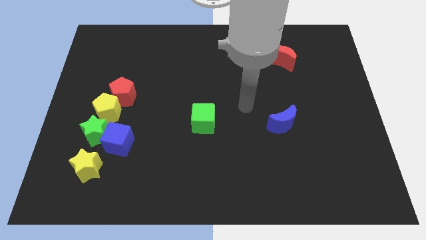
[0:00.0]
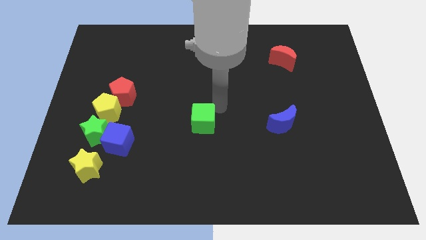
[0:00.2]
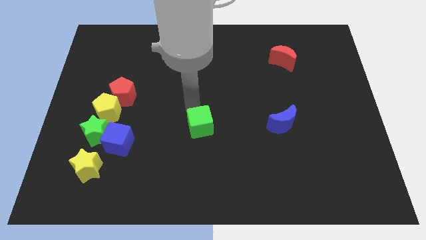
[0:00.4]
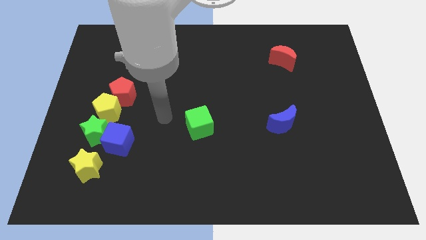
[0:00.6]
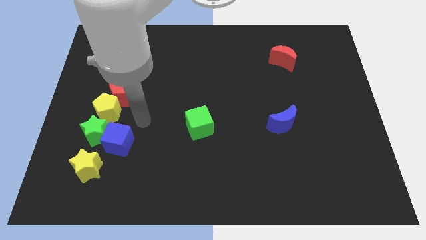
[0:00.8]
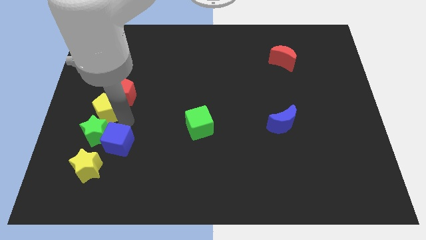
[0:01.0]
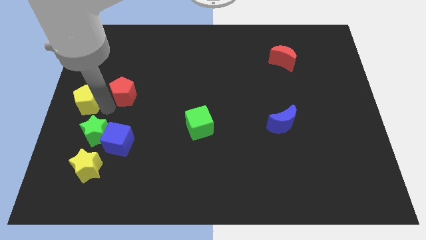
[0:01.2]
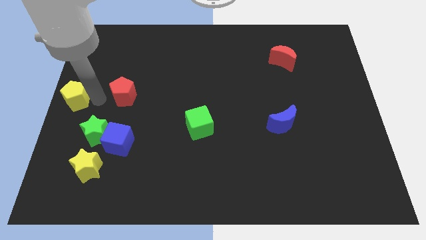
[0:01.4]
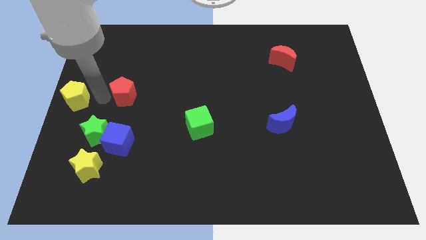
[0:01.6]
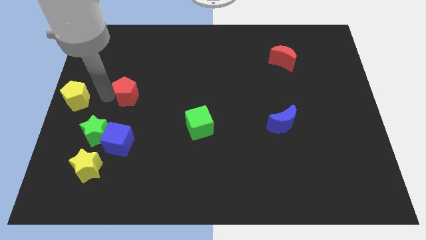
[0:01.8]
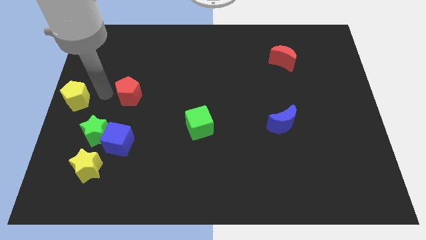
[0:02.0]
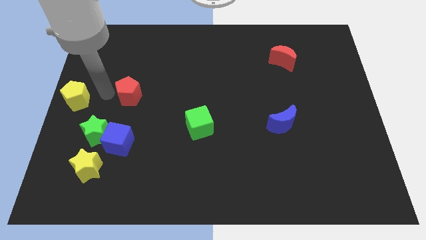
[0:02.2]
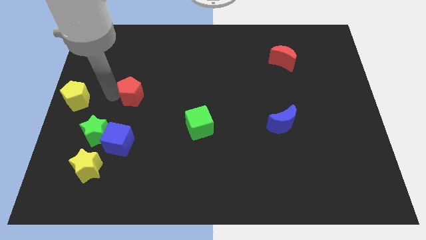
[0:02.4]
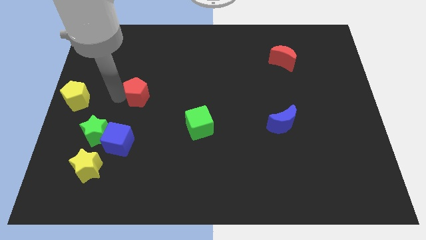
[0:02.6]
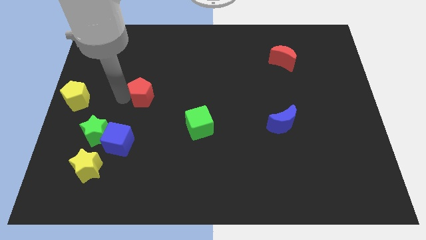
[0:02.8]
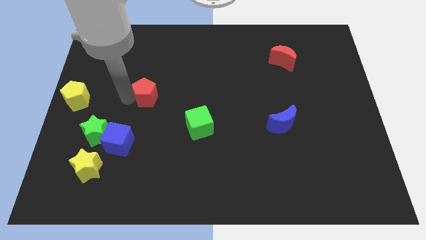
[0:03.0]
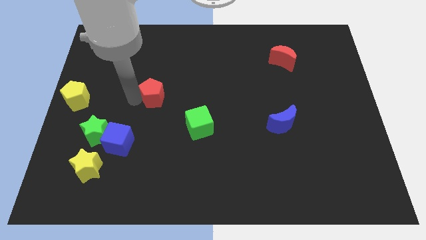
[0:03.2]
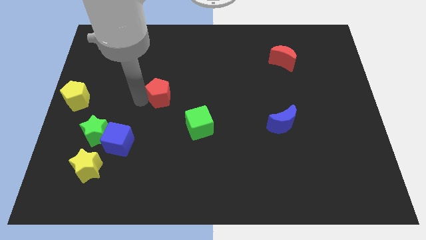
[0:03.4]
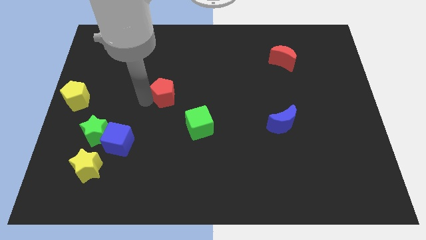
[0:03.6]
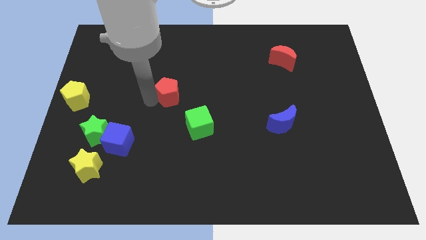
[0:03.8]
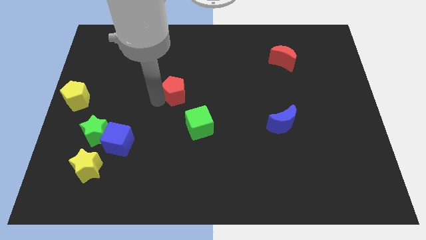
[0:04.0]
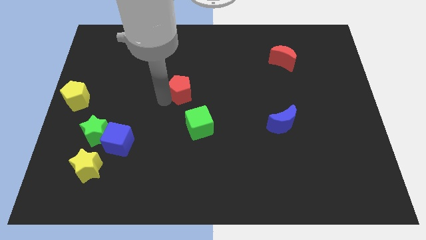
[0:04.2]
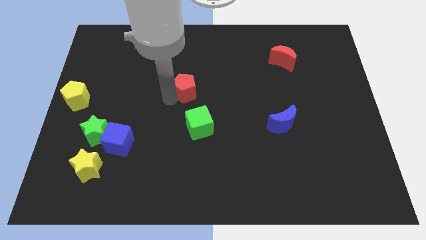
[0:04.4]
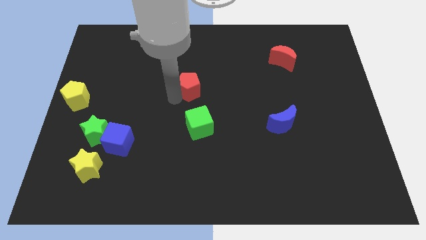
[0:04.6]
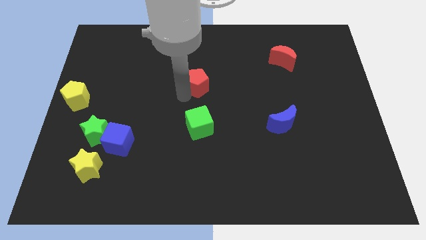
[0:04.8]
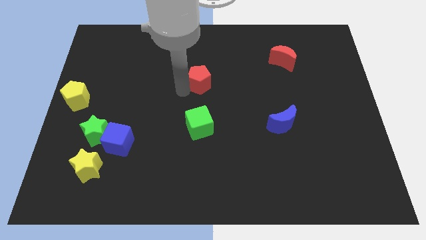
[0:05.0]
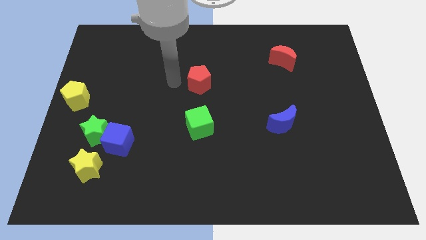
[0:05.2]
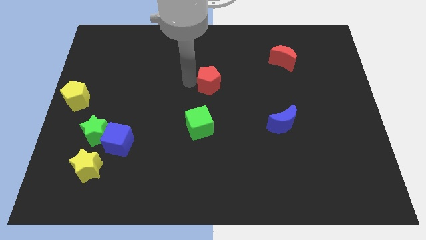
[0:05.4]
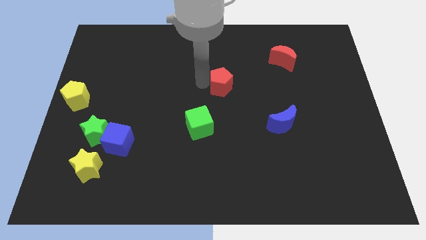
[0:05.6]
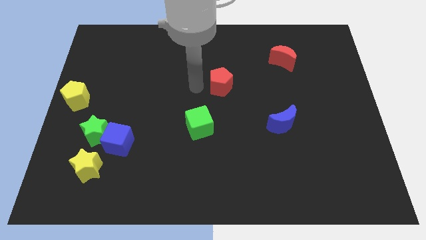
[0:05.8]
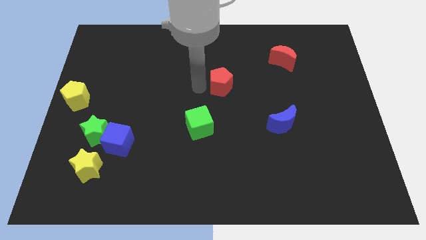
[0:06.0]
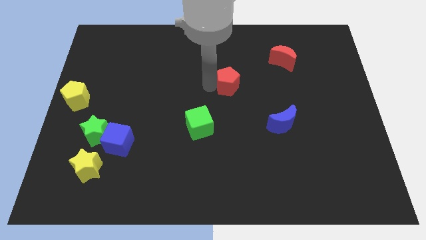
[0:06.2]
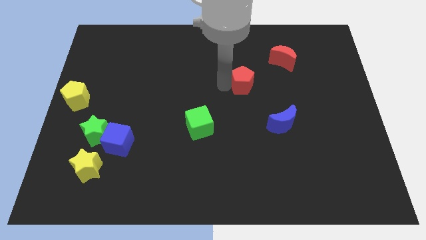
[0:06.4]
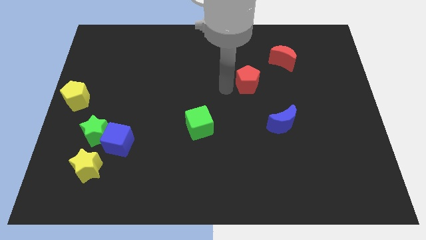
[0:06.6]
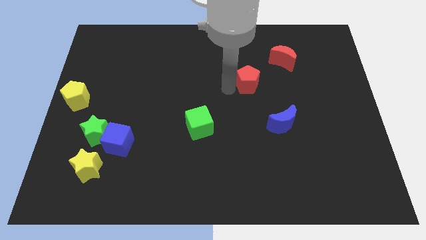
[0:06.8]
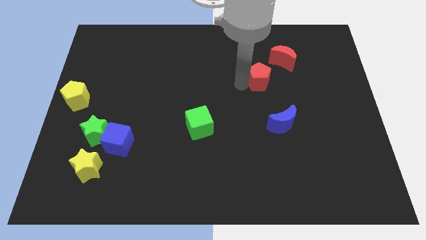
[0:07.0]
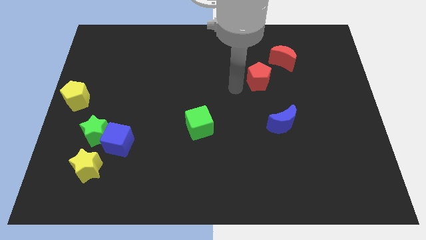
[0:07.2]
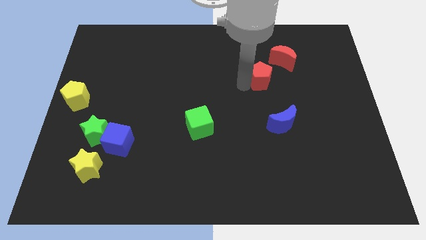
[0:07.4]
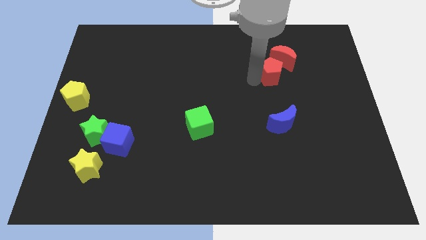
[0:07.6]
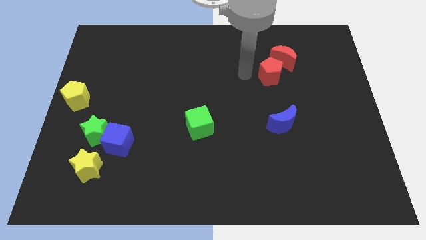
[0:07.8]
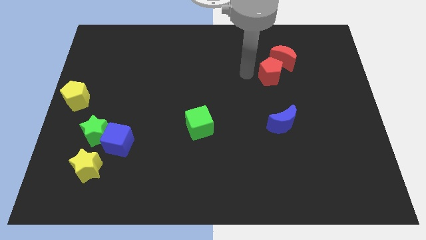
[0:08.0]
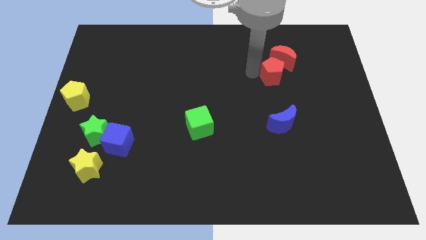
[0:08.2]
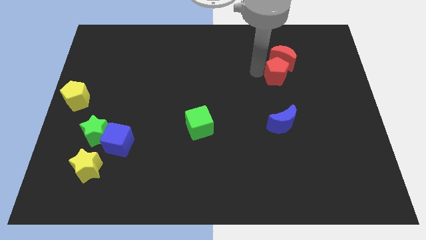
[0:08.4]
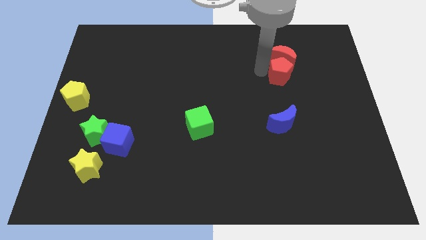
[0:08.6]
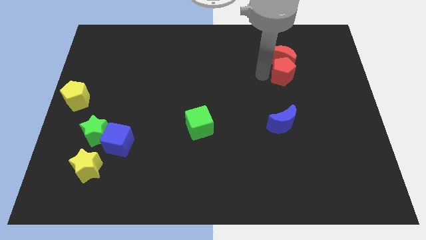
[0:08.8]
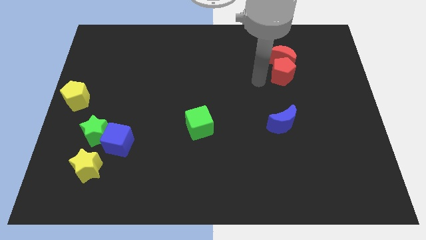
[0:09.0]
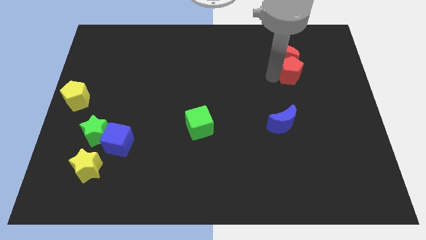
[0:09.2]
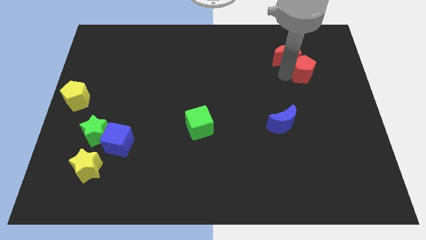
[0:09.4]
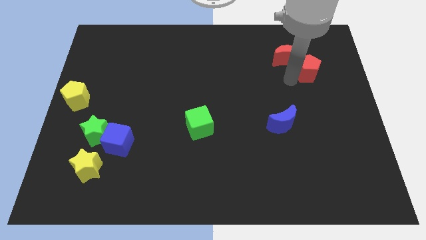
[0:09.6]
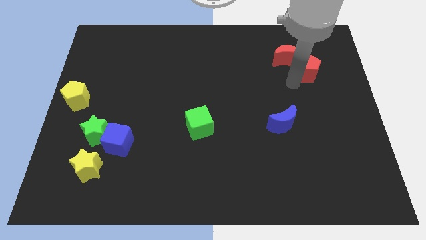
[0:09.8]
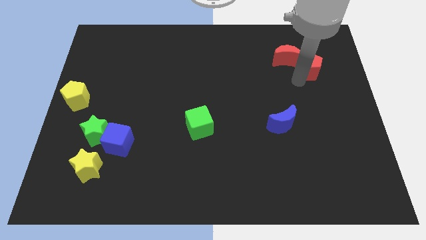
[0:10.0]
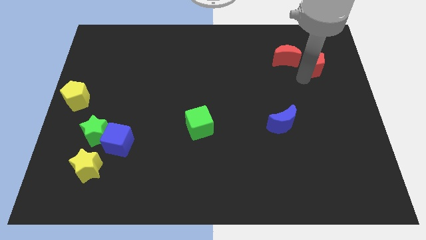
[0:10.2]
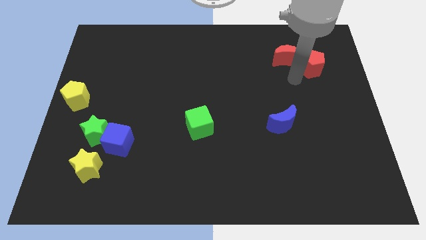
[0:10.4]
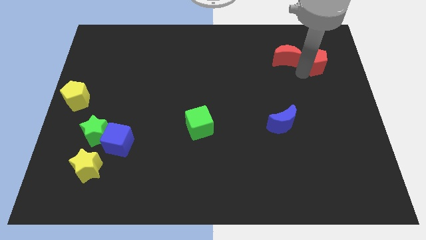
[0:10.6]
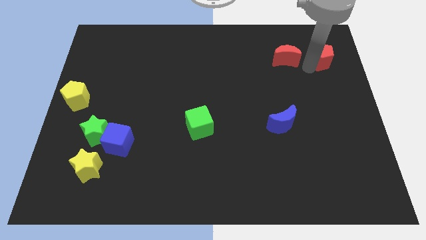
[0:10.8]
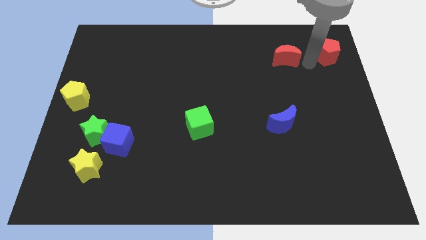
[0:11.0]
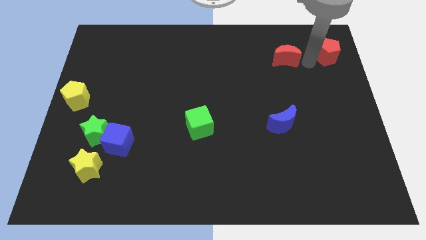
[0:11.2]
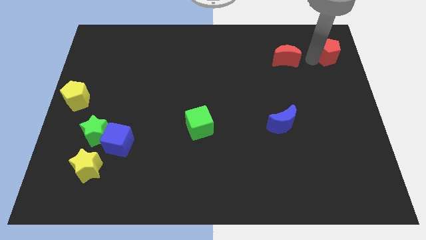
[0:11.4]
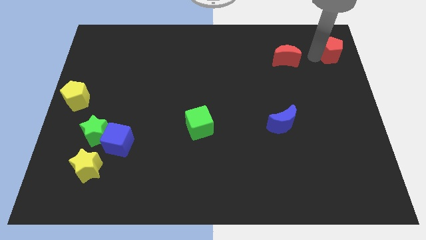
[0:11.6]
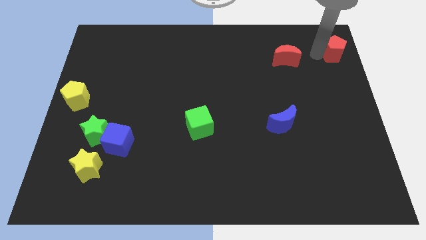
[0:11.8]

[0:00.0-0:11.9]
move the red pentagon to the upper right corner
